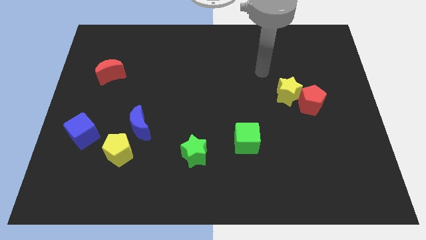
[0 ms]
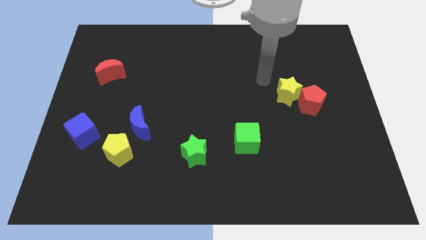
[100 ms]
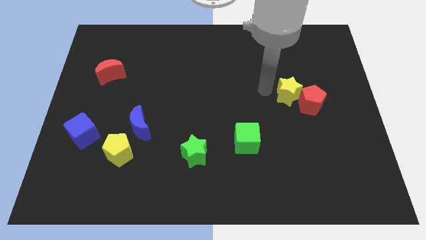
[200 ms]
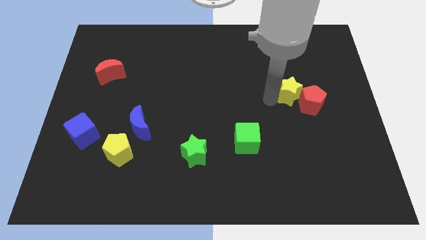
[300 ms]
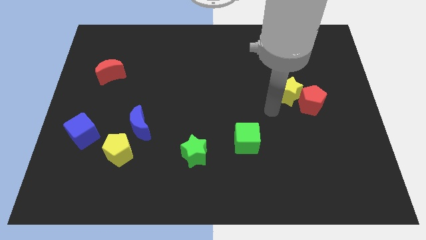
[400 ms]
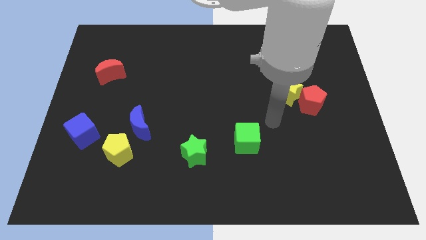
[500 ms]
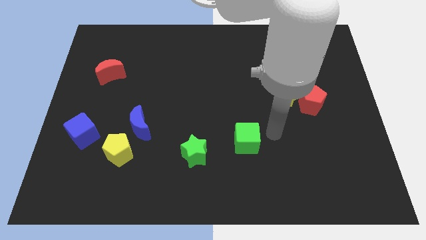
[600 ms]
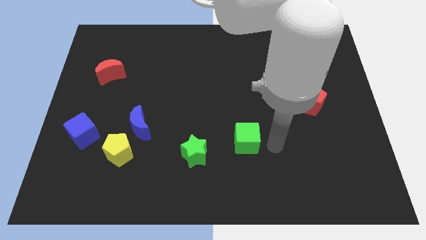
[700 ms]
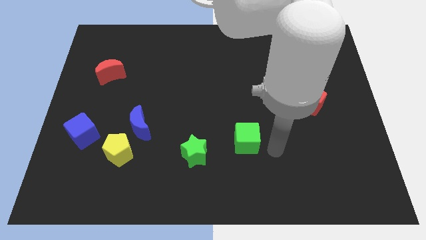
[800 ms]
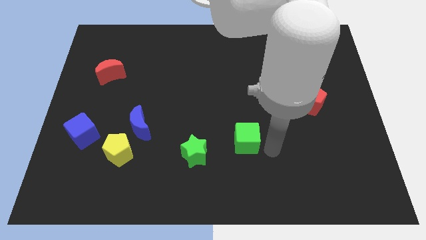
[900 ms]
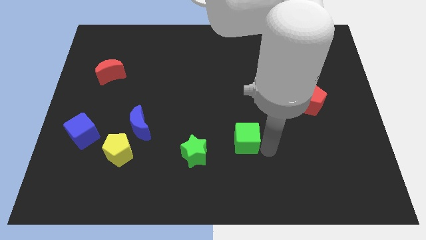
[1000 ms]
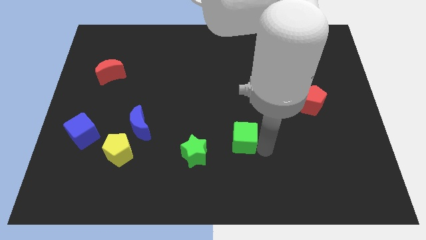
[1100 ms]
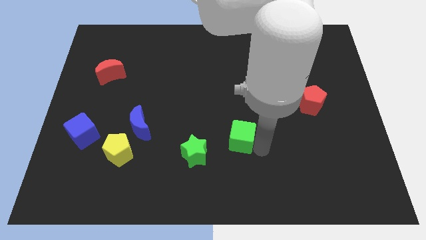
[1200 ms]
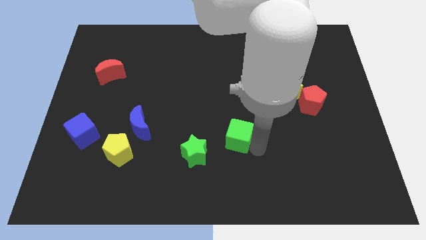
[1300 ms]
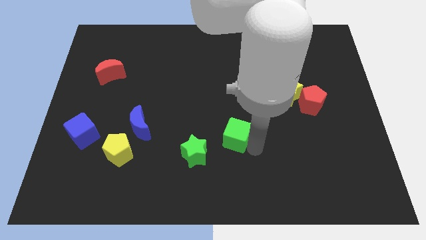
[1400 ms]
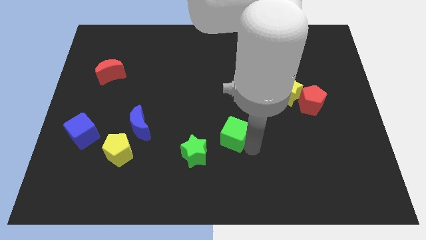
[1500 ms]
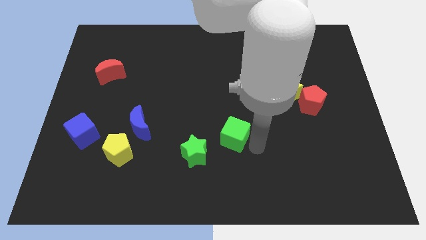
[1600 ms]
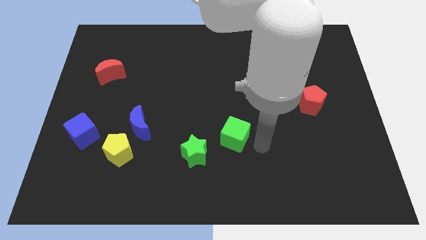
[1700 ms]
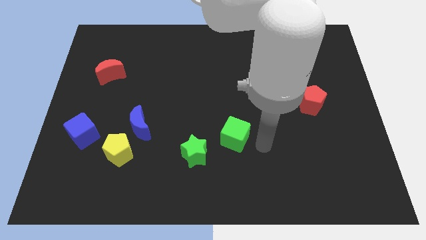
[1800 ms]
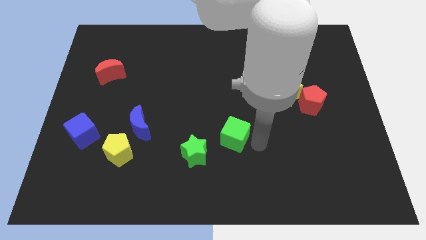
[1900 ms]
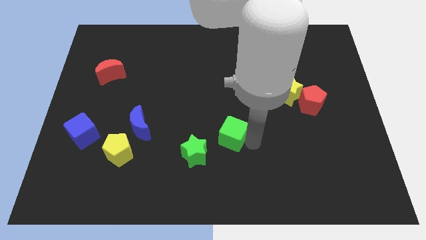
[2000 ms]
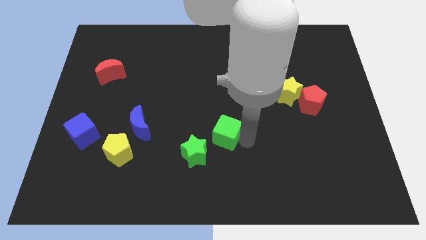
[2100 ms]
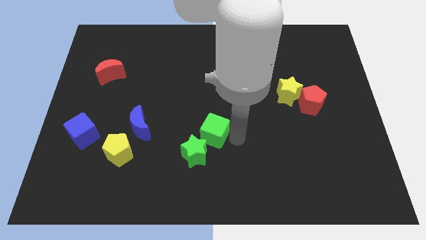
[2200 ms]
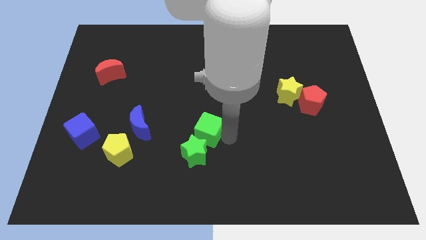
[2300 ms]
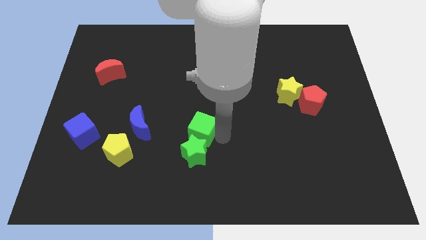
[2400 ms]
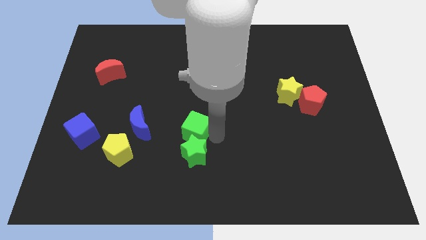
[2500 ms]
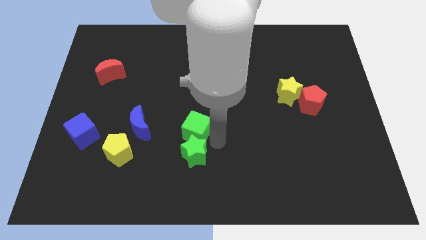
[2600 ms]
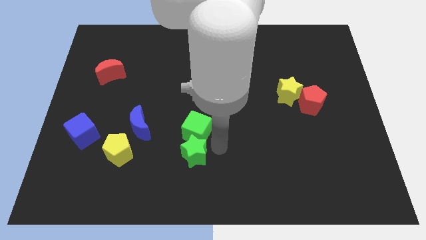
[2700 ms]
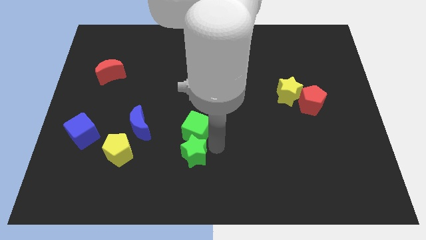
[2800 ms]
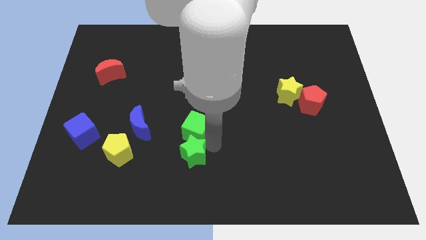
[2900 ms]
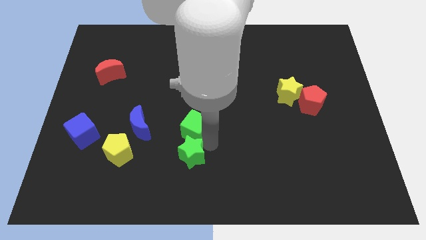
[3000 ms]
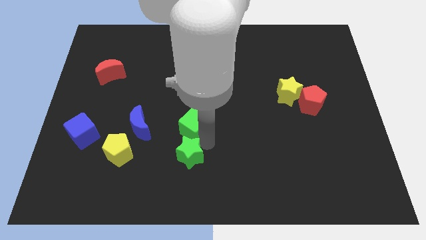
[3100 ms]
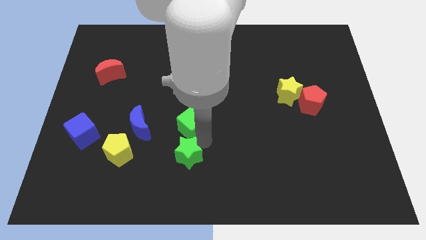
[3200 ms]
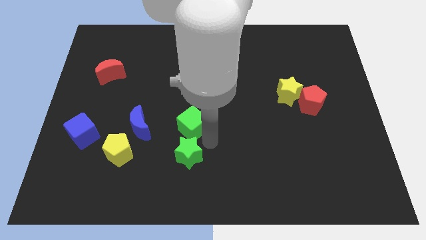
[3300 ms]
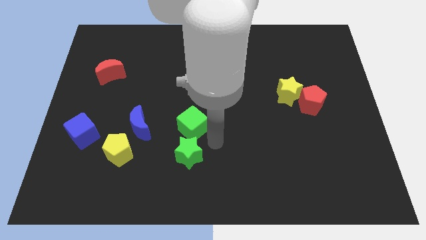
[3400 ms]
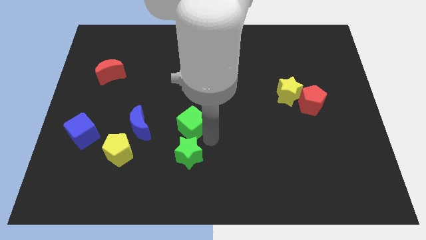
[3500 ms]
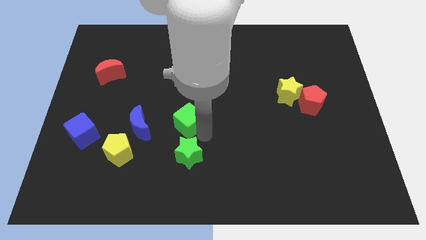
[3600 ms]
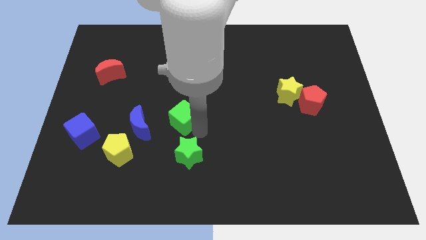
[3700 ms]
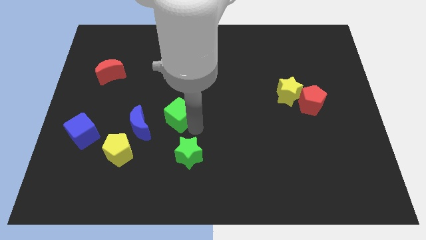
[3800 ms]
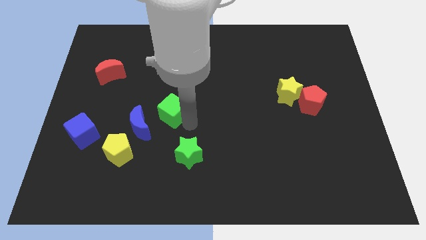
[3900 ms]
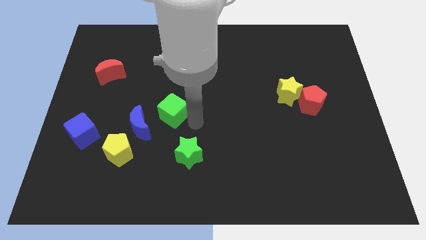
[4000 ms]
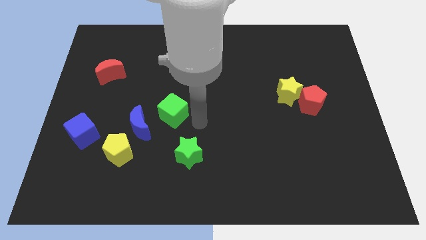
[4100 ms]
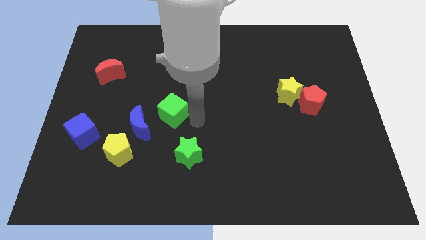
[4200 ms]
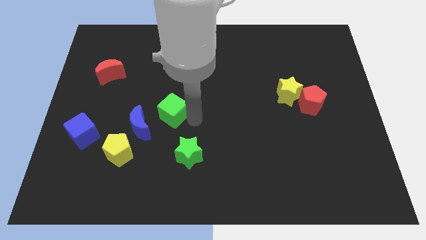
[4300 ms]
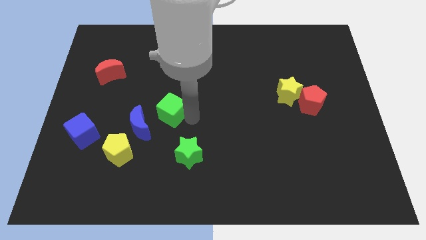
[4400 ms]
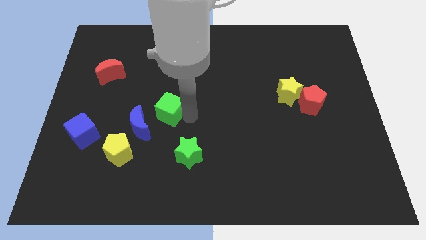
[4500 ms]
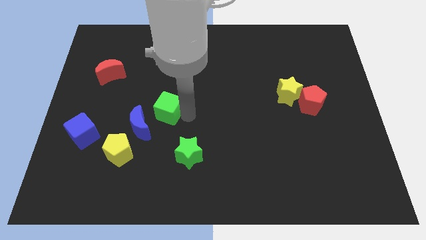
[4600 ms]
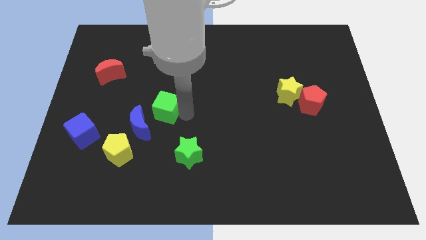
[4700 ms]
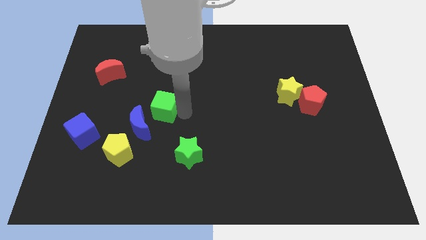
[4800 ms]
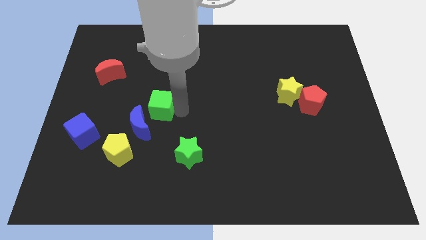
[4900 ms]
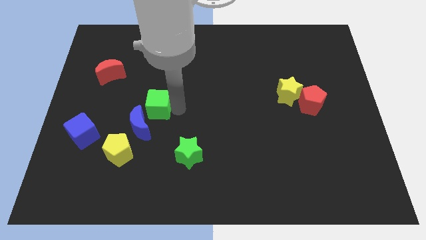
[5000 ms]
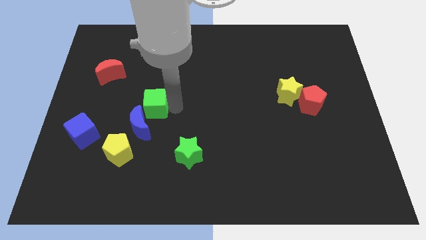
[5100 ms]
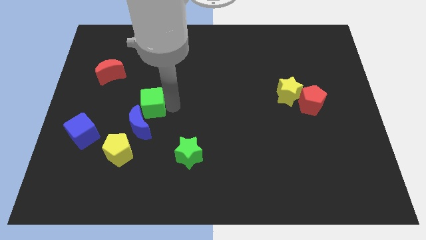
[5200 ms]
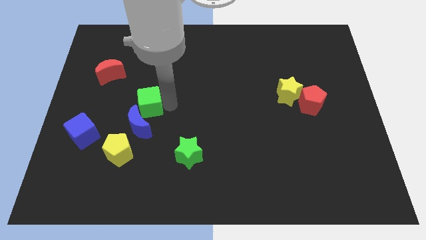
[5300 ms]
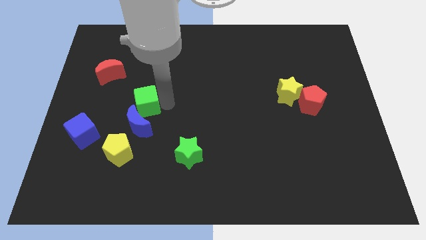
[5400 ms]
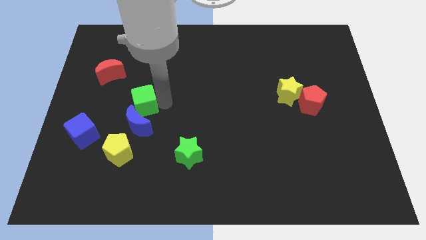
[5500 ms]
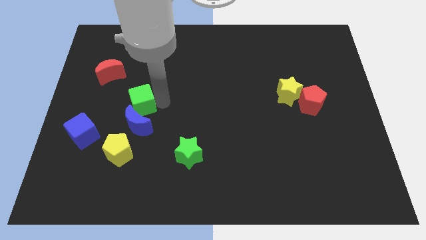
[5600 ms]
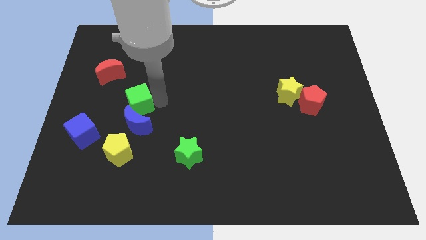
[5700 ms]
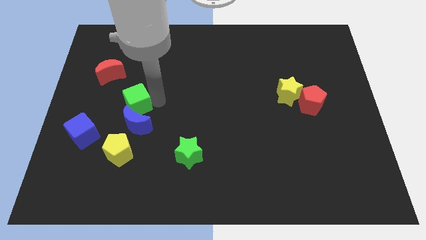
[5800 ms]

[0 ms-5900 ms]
slide the green cube left

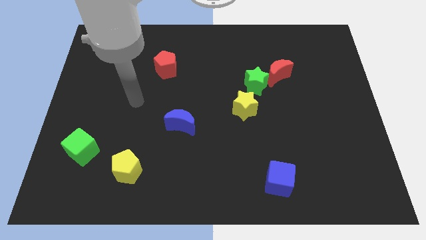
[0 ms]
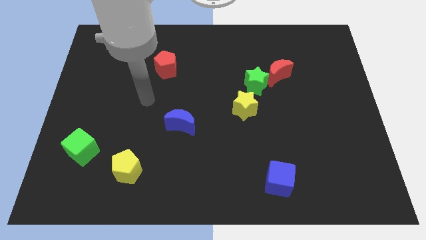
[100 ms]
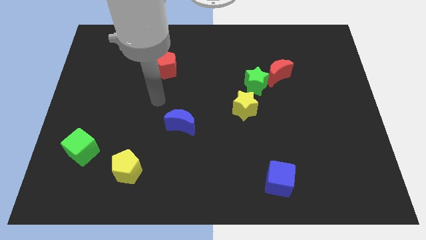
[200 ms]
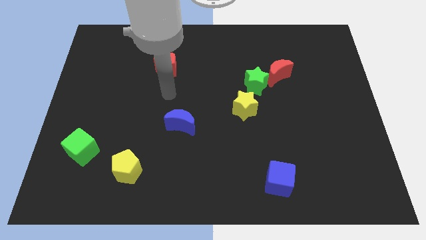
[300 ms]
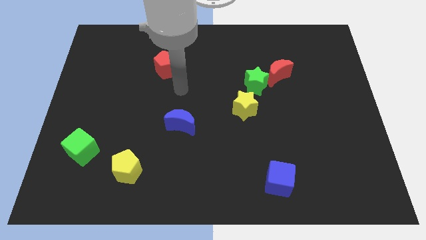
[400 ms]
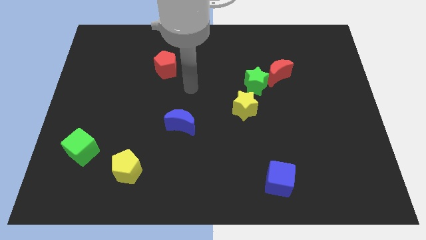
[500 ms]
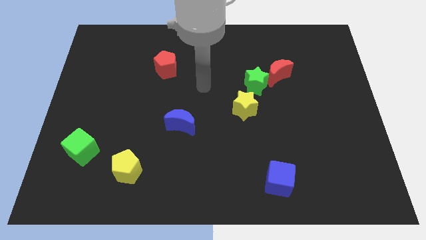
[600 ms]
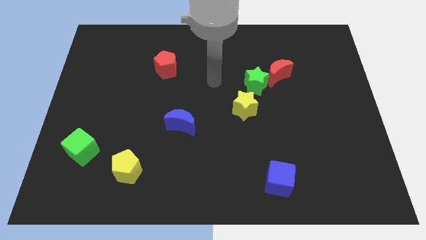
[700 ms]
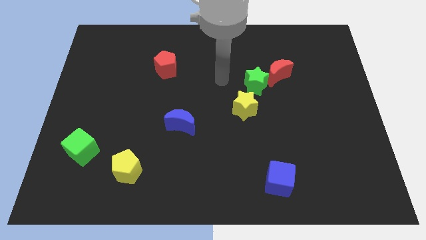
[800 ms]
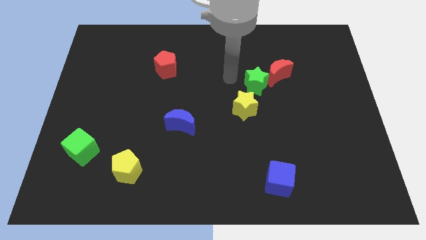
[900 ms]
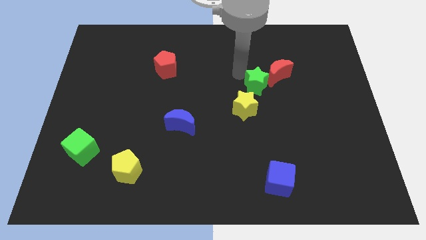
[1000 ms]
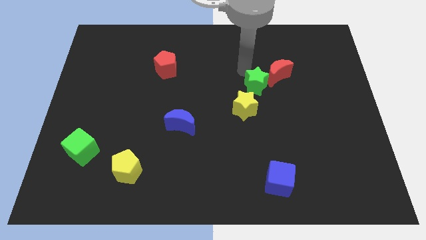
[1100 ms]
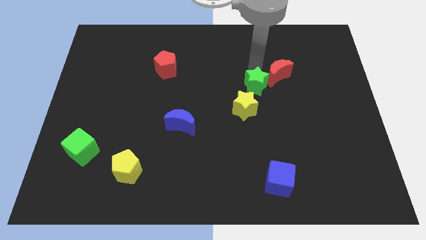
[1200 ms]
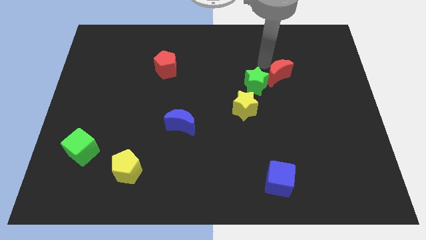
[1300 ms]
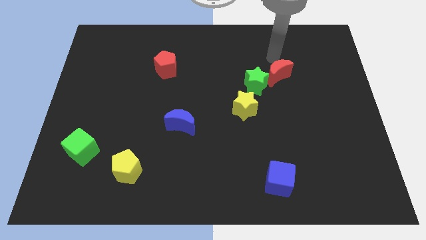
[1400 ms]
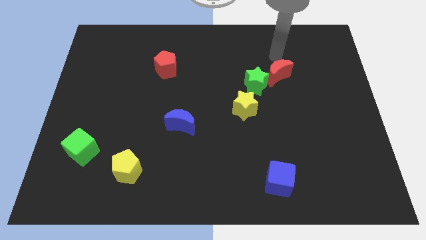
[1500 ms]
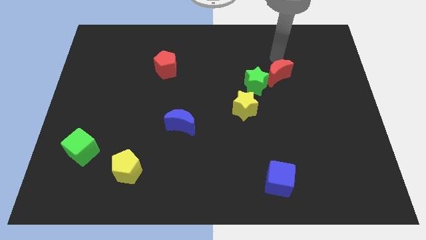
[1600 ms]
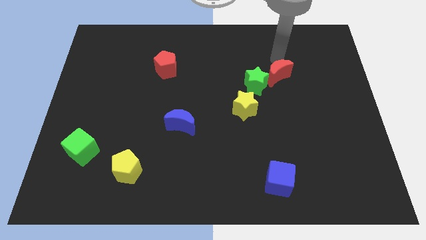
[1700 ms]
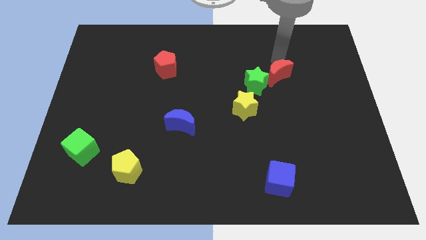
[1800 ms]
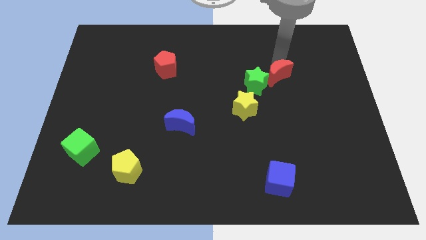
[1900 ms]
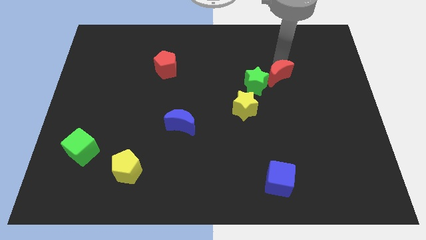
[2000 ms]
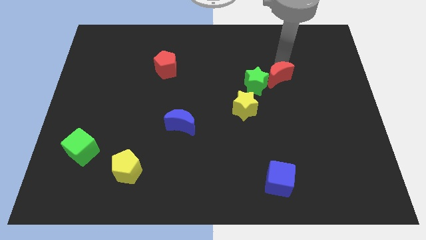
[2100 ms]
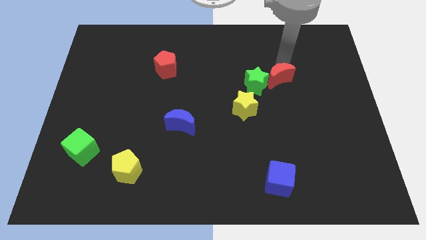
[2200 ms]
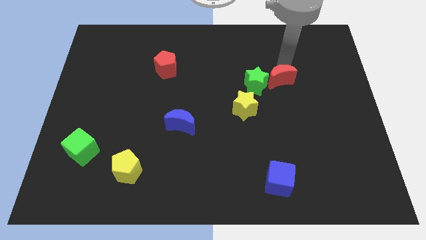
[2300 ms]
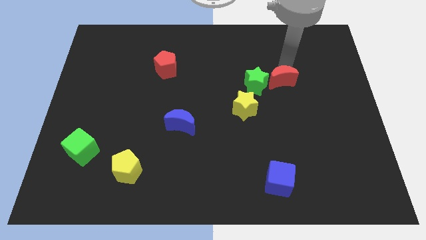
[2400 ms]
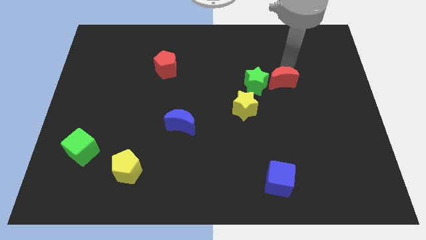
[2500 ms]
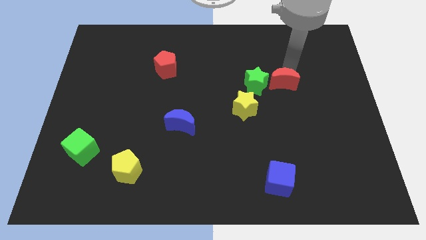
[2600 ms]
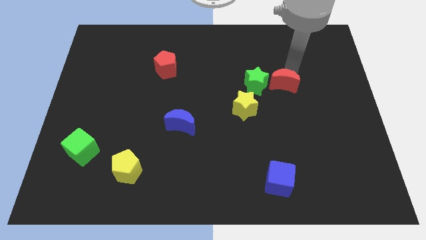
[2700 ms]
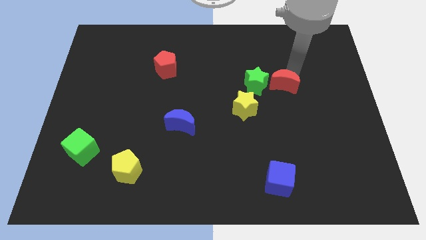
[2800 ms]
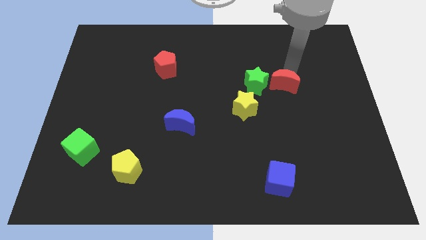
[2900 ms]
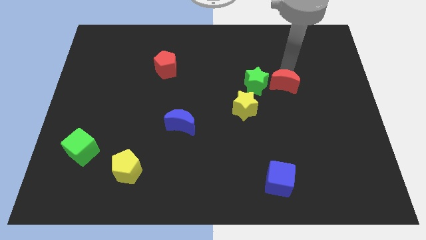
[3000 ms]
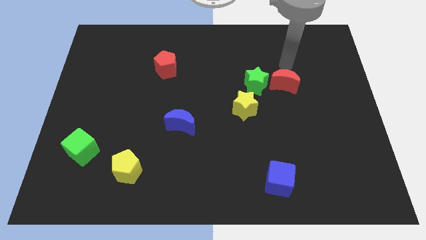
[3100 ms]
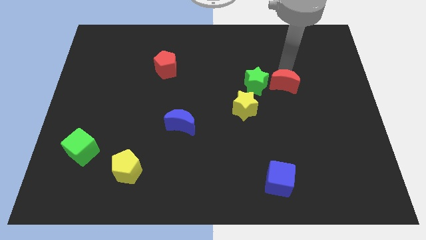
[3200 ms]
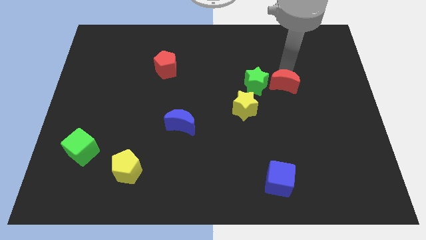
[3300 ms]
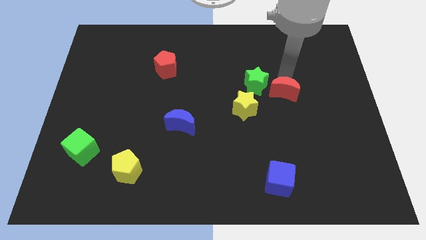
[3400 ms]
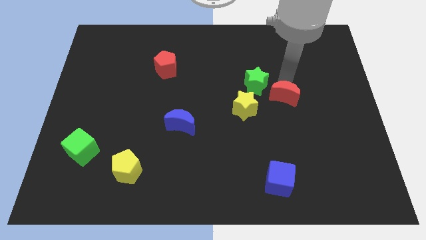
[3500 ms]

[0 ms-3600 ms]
push the red moon downwards slightly
